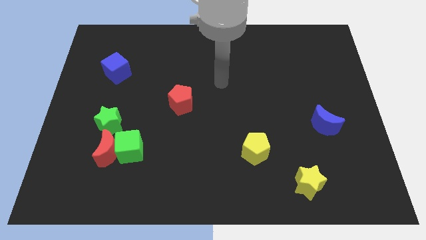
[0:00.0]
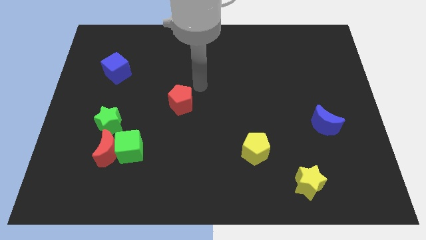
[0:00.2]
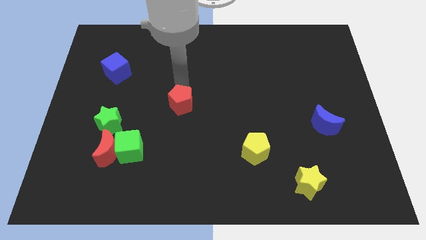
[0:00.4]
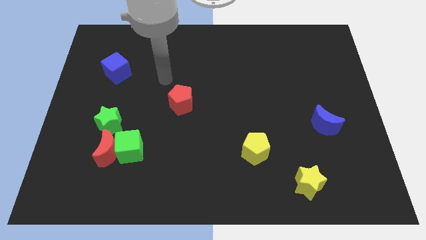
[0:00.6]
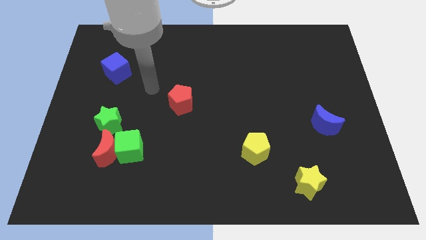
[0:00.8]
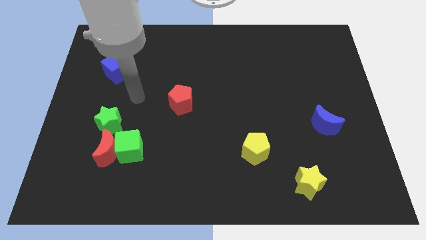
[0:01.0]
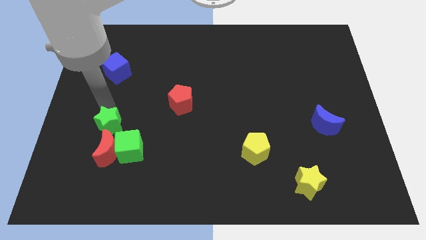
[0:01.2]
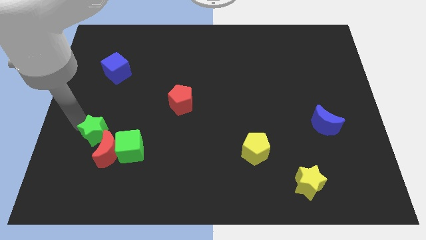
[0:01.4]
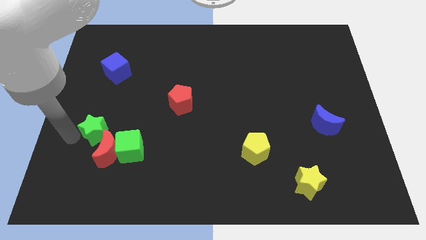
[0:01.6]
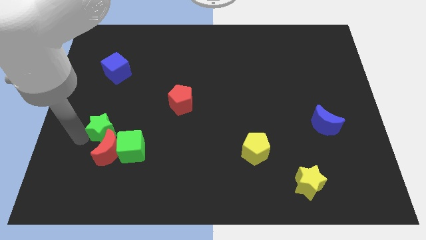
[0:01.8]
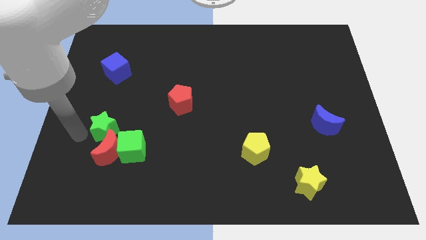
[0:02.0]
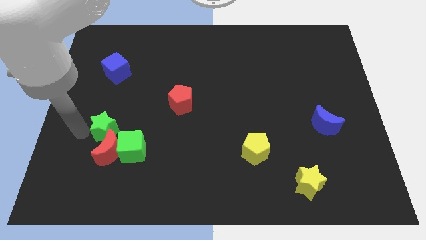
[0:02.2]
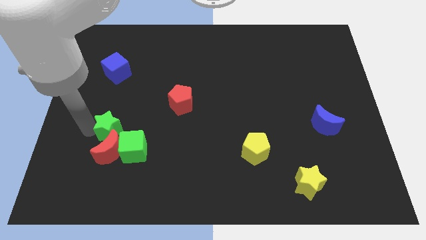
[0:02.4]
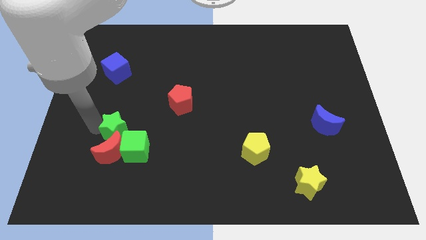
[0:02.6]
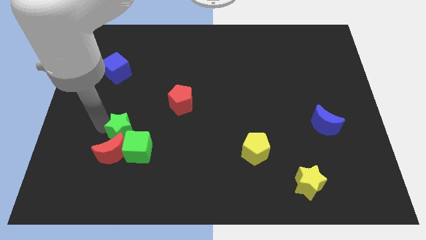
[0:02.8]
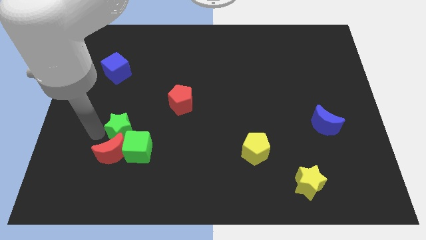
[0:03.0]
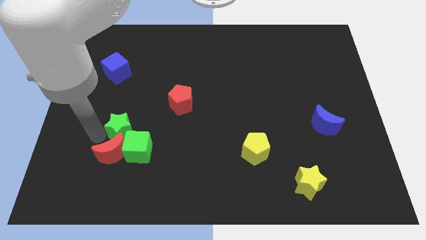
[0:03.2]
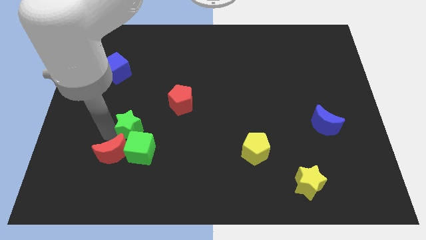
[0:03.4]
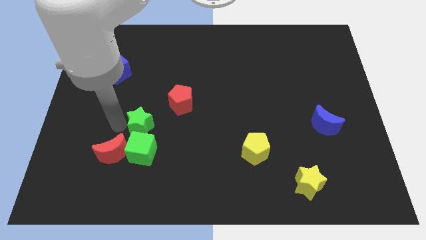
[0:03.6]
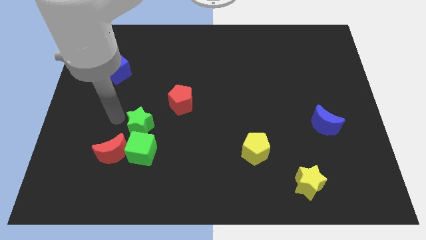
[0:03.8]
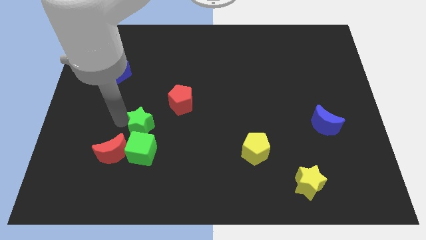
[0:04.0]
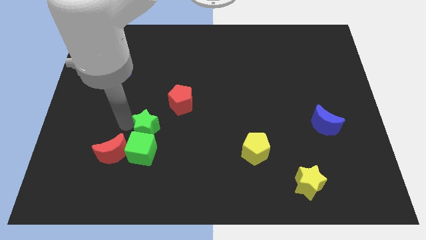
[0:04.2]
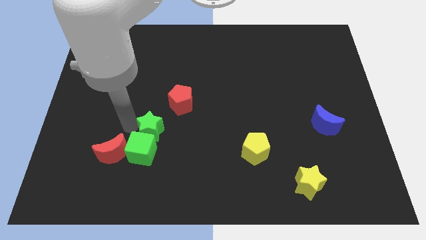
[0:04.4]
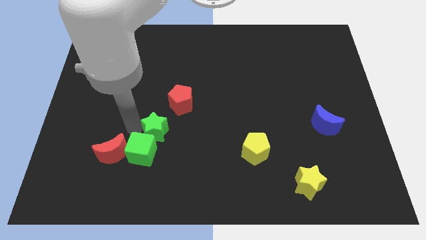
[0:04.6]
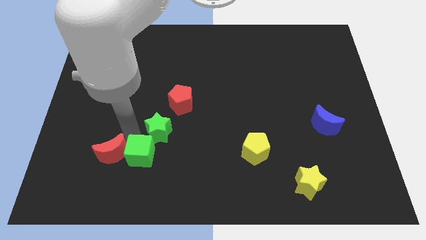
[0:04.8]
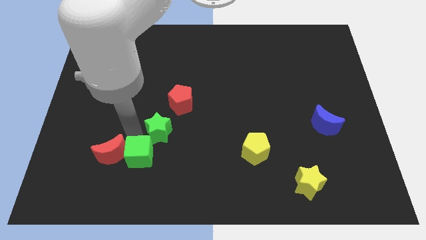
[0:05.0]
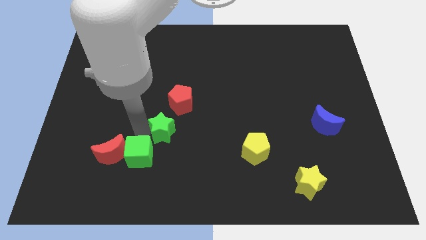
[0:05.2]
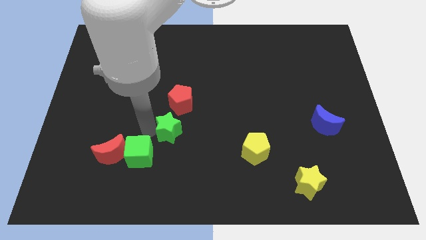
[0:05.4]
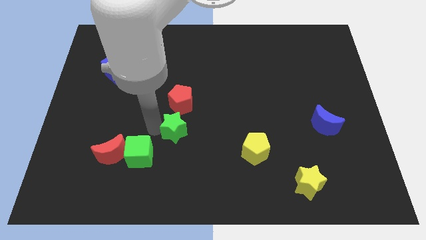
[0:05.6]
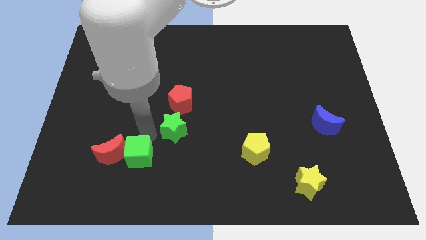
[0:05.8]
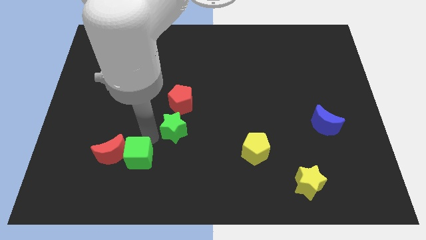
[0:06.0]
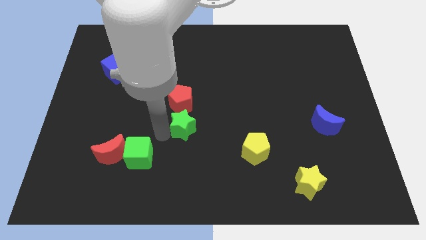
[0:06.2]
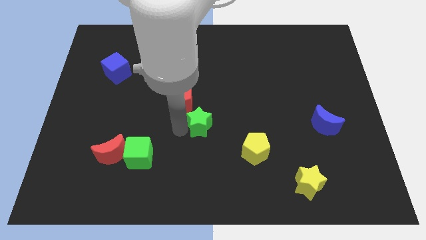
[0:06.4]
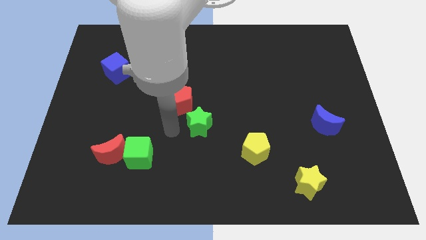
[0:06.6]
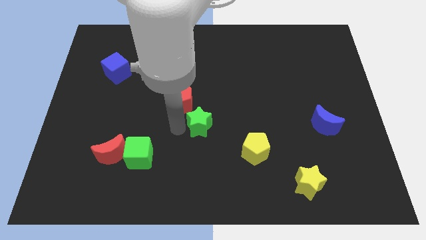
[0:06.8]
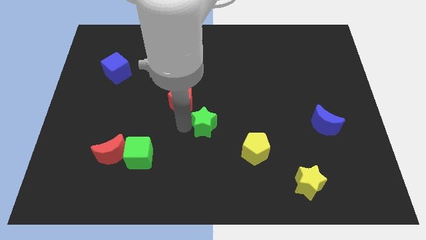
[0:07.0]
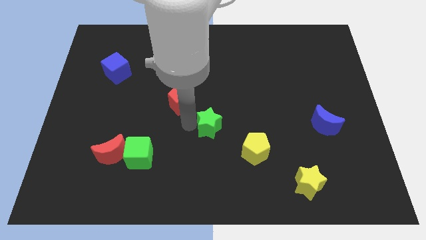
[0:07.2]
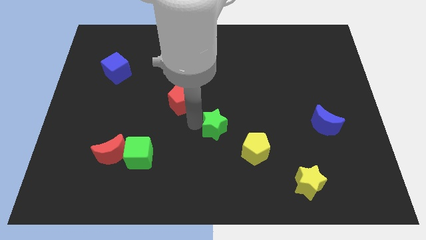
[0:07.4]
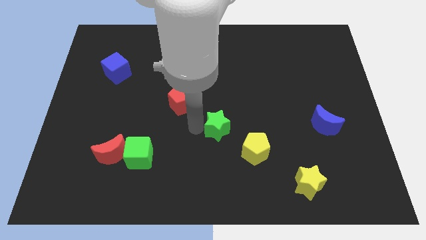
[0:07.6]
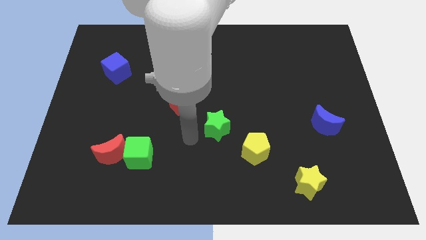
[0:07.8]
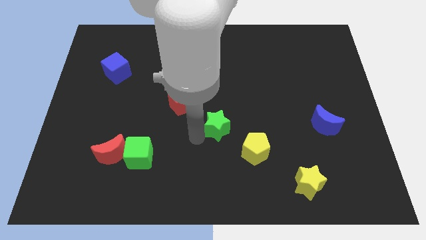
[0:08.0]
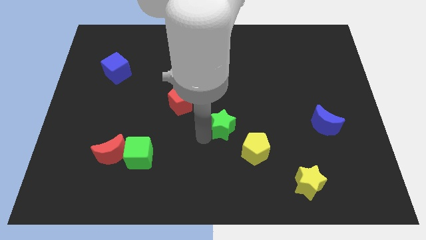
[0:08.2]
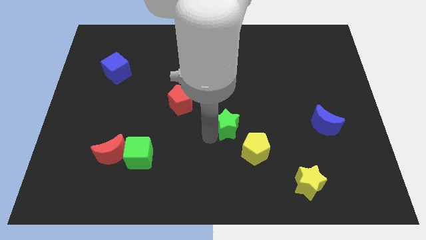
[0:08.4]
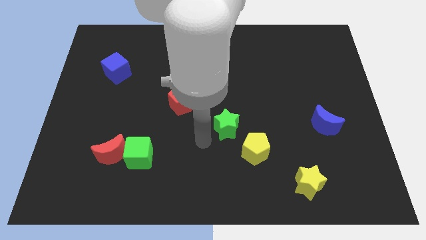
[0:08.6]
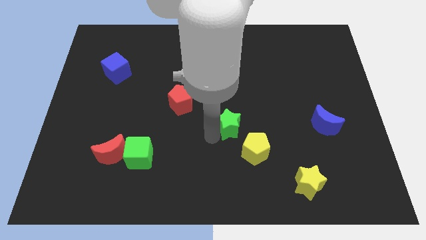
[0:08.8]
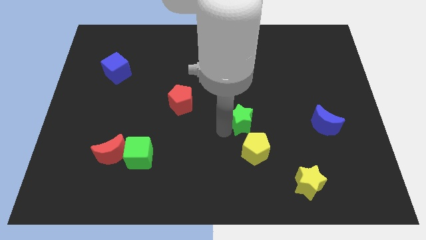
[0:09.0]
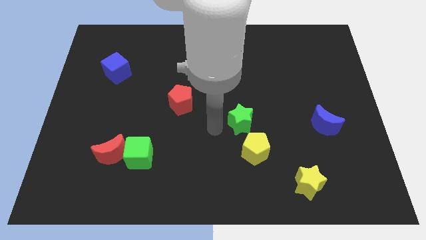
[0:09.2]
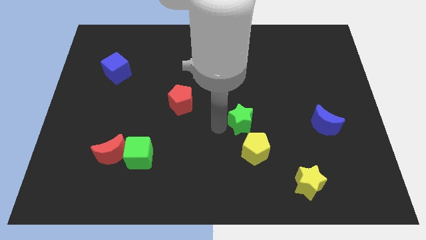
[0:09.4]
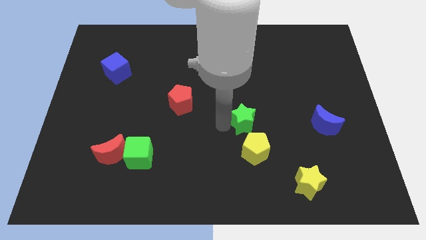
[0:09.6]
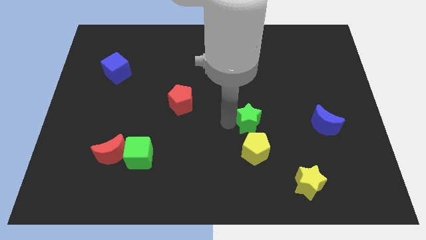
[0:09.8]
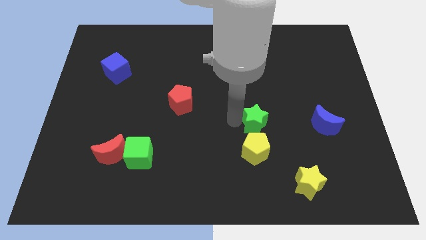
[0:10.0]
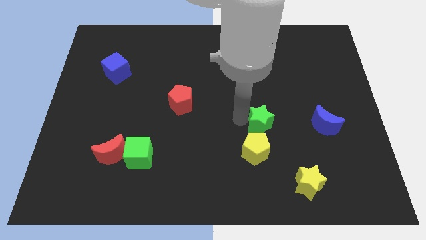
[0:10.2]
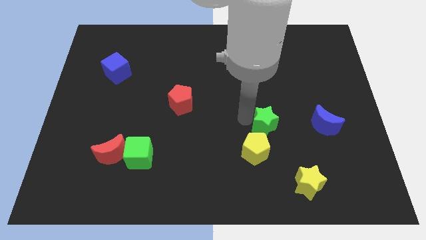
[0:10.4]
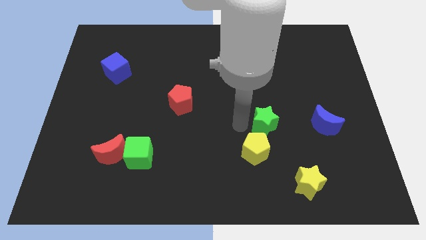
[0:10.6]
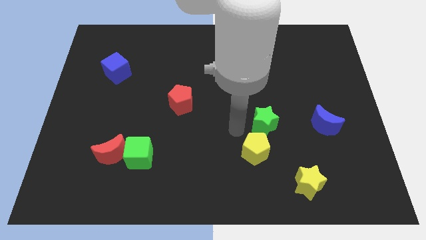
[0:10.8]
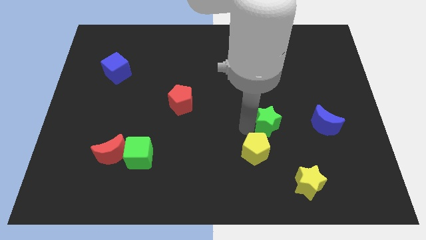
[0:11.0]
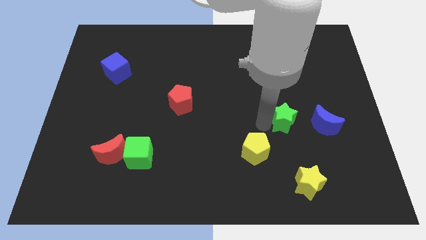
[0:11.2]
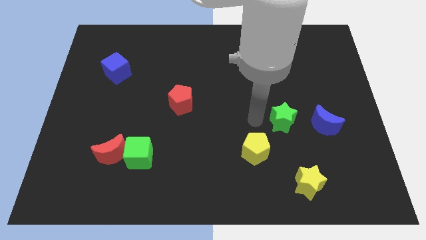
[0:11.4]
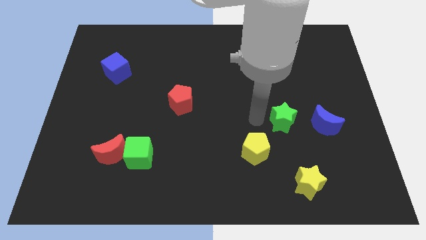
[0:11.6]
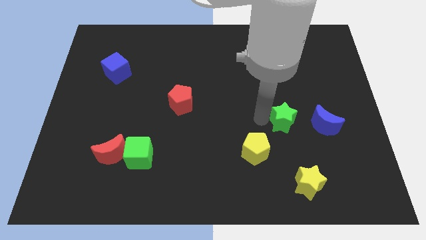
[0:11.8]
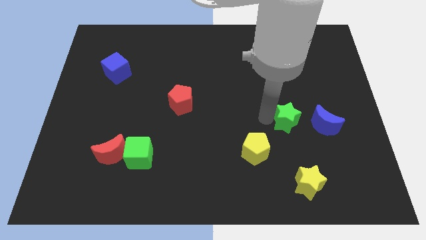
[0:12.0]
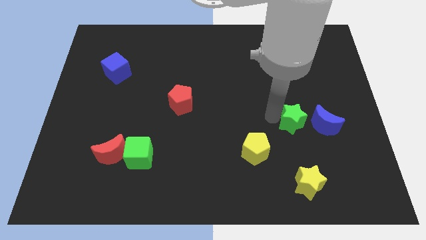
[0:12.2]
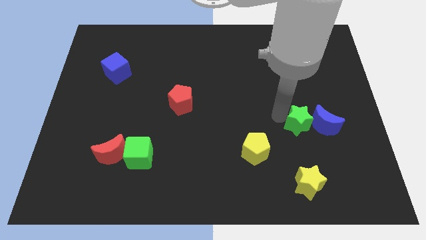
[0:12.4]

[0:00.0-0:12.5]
move the green star towards the blue moon
